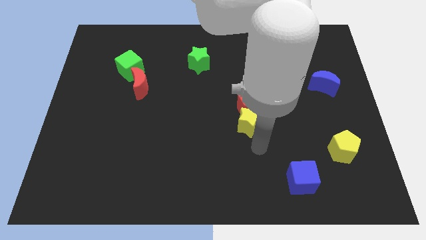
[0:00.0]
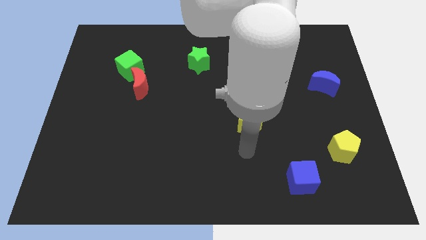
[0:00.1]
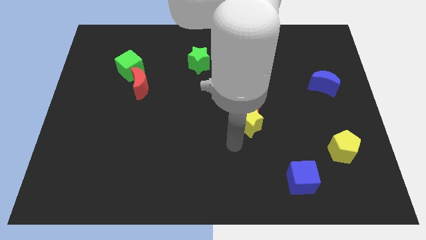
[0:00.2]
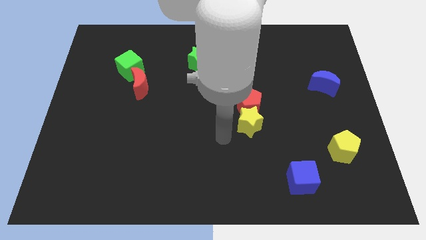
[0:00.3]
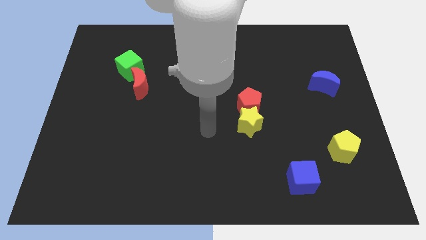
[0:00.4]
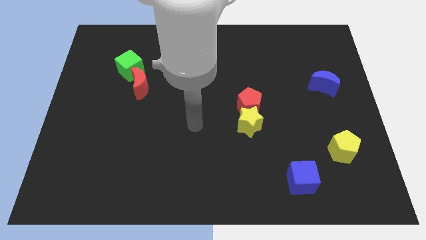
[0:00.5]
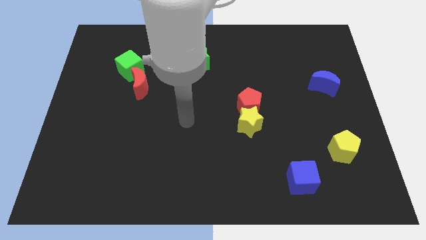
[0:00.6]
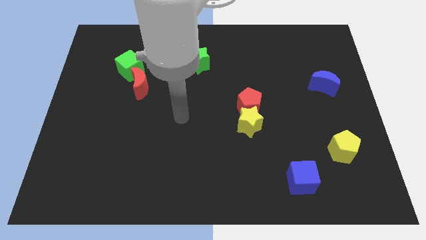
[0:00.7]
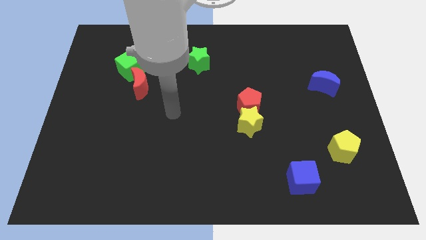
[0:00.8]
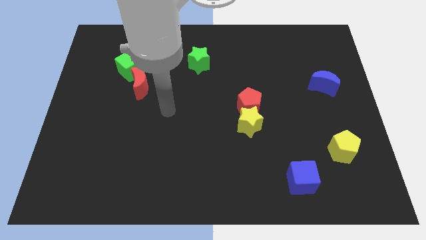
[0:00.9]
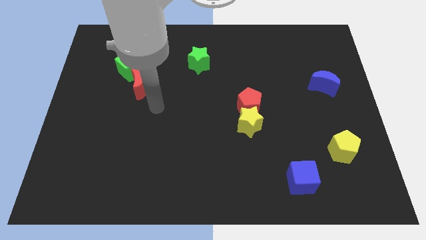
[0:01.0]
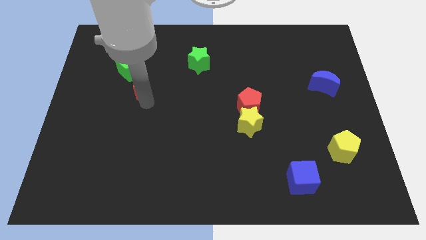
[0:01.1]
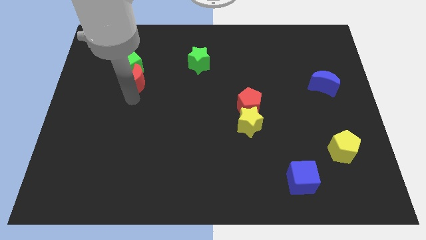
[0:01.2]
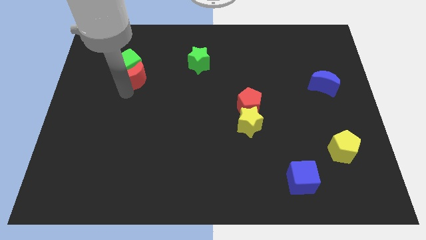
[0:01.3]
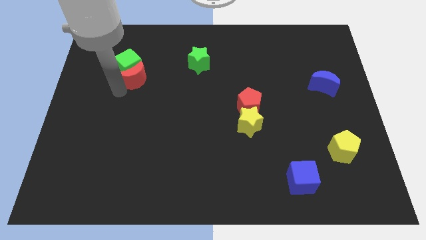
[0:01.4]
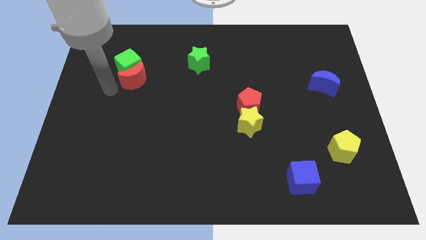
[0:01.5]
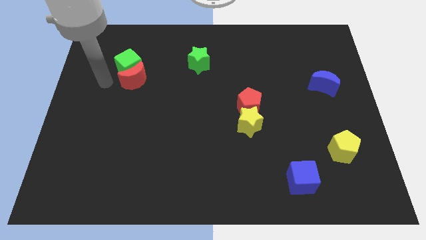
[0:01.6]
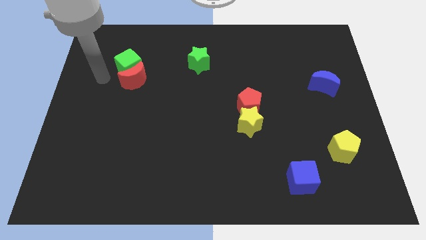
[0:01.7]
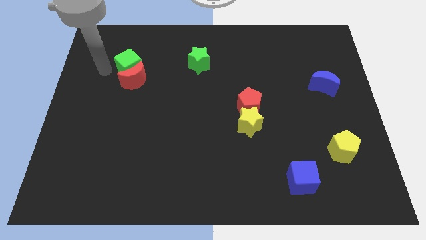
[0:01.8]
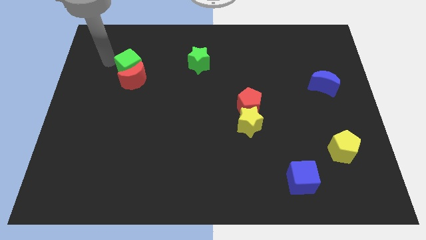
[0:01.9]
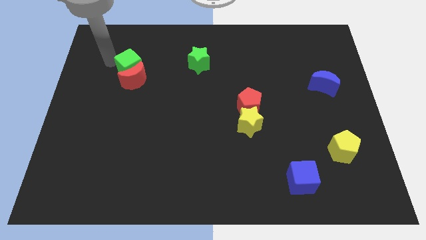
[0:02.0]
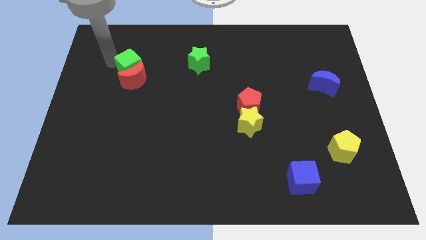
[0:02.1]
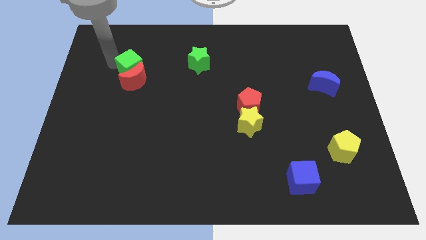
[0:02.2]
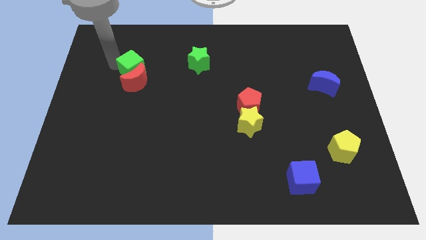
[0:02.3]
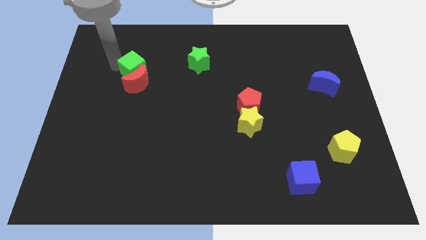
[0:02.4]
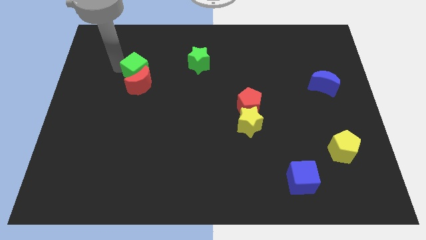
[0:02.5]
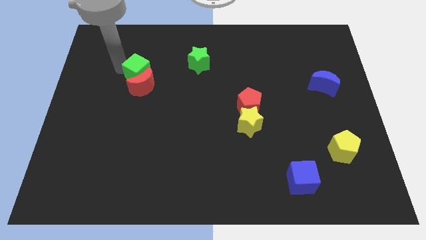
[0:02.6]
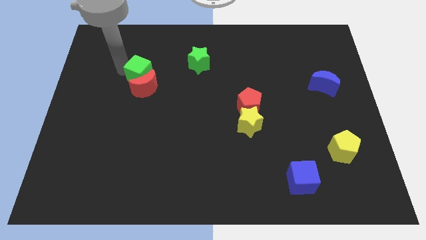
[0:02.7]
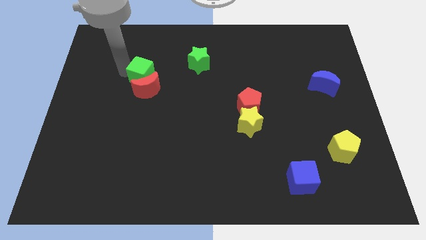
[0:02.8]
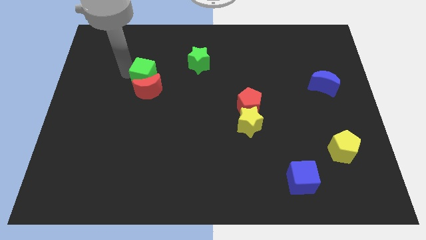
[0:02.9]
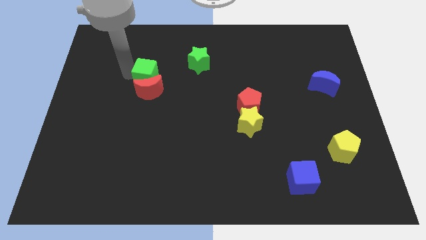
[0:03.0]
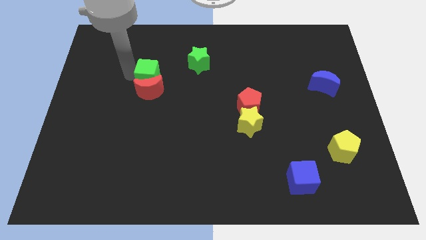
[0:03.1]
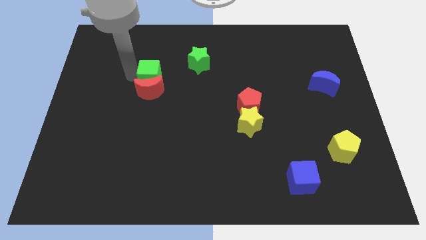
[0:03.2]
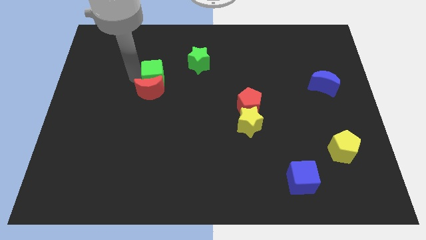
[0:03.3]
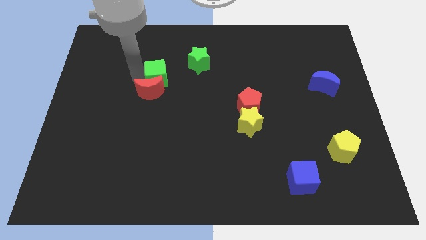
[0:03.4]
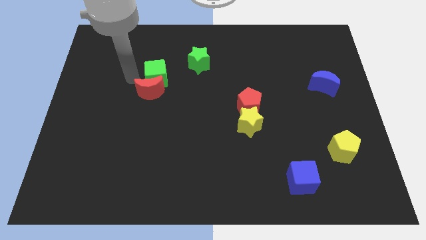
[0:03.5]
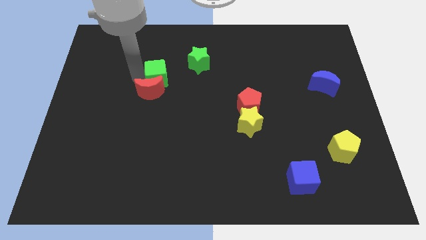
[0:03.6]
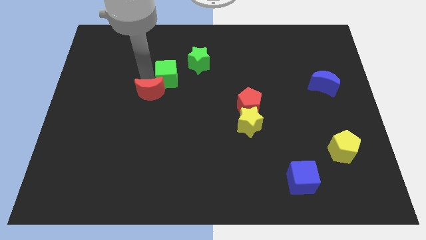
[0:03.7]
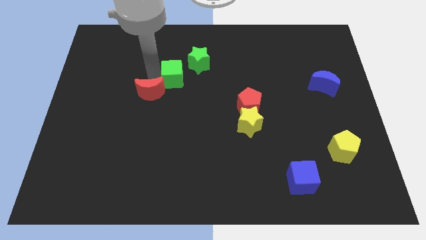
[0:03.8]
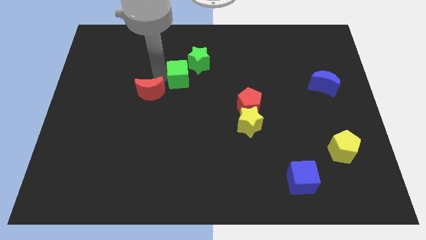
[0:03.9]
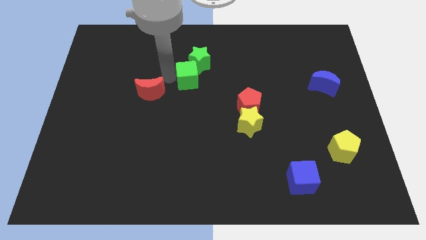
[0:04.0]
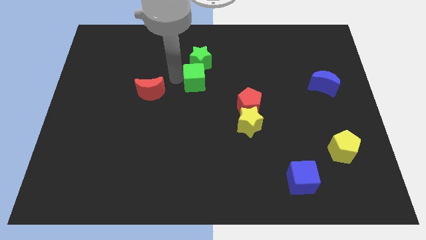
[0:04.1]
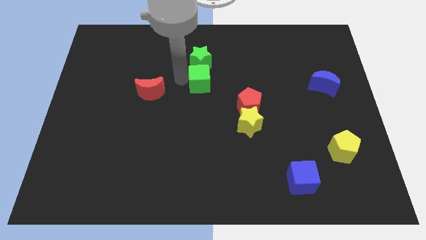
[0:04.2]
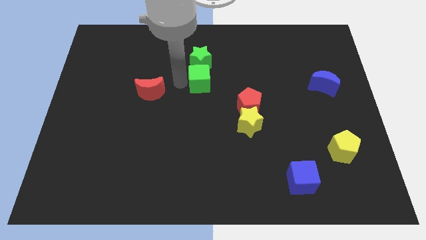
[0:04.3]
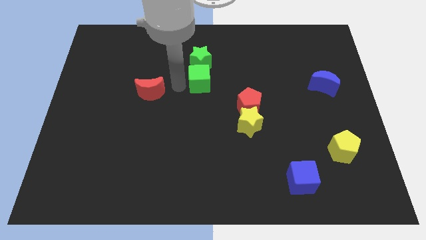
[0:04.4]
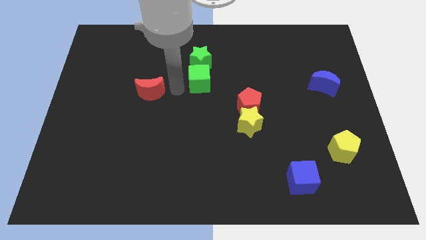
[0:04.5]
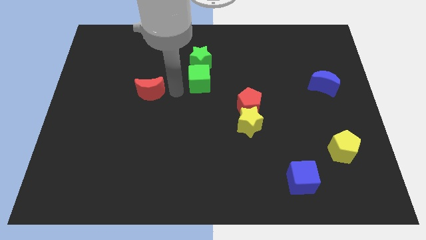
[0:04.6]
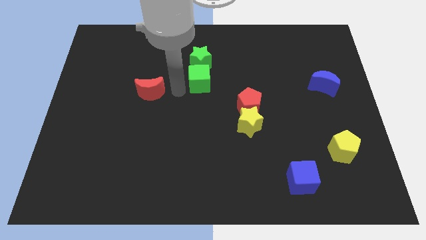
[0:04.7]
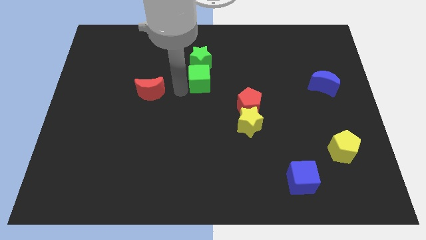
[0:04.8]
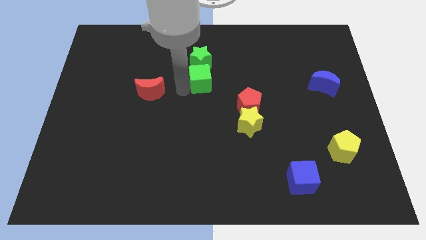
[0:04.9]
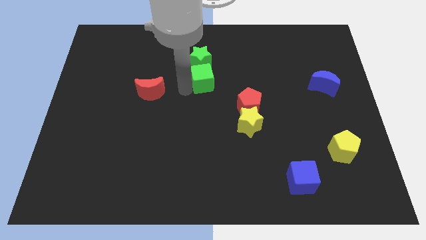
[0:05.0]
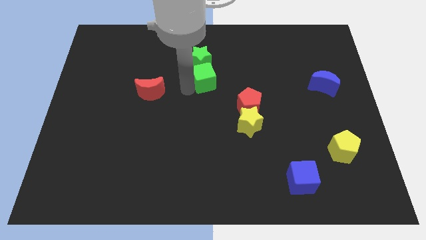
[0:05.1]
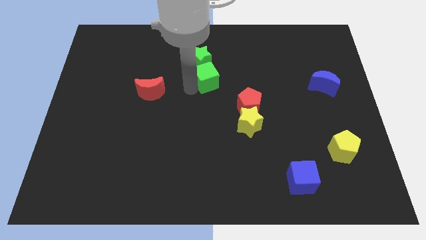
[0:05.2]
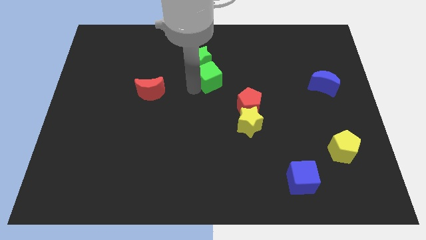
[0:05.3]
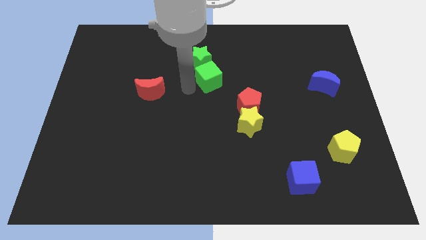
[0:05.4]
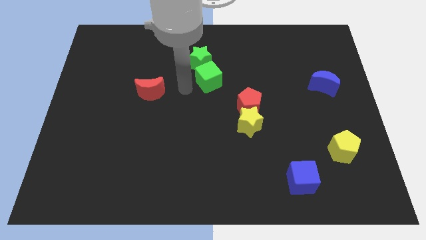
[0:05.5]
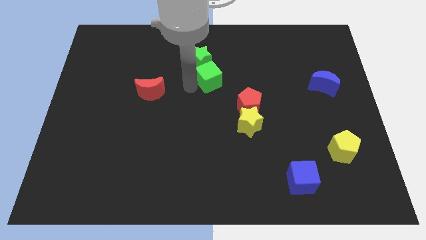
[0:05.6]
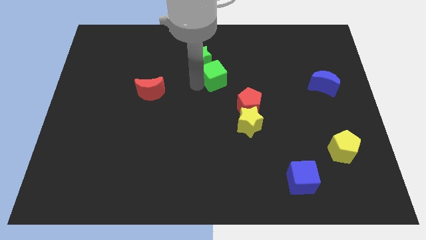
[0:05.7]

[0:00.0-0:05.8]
move the green cube right

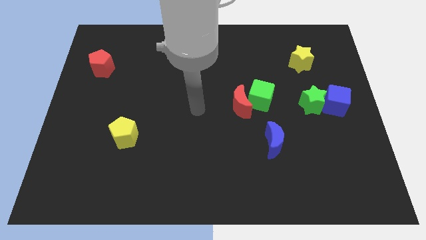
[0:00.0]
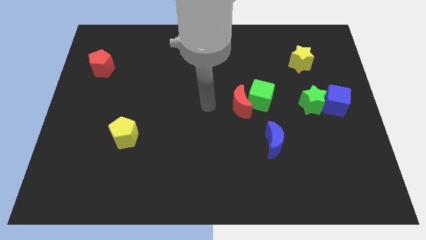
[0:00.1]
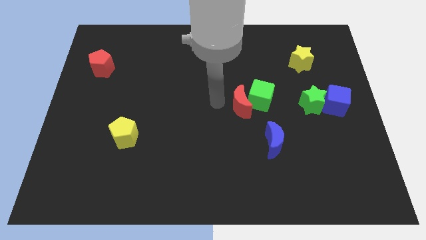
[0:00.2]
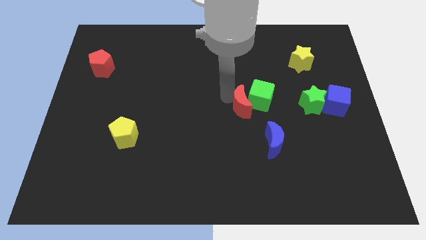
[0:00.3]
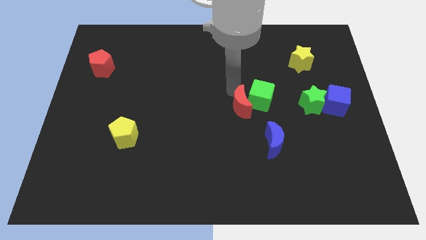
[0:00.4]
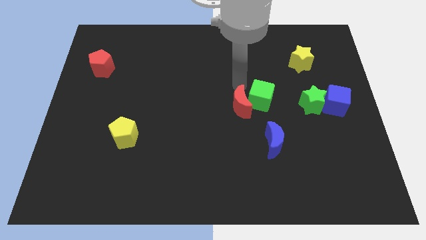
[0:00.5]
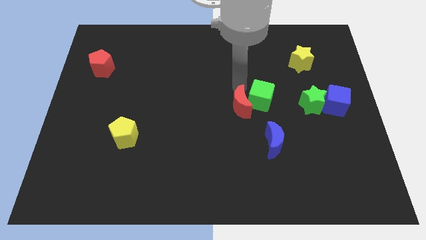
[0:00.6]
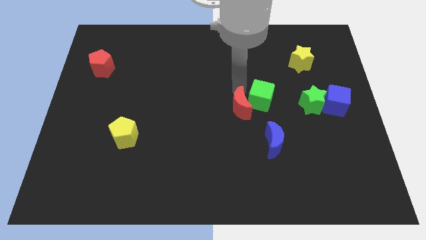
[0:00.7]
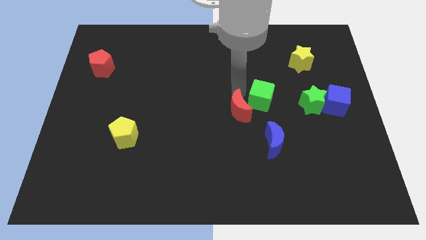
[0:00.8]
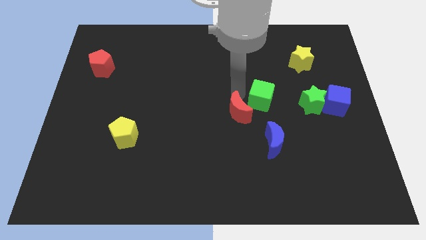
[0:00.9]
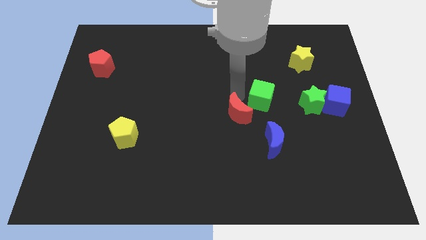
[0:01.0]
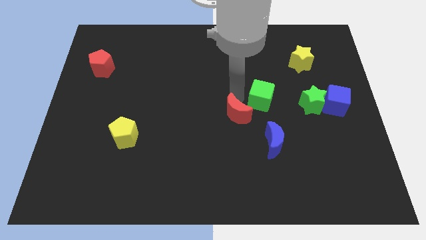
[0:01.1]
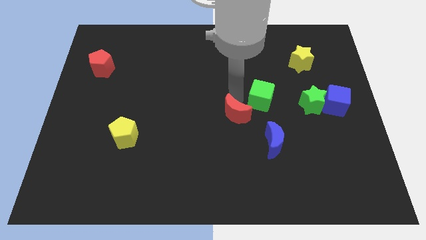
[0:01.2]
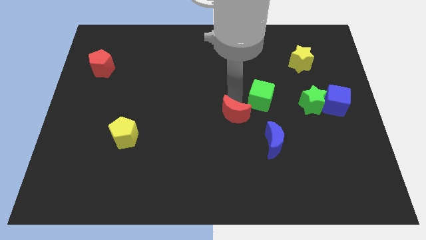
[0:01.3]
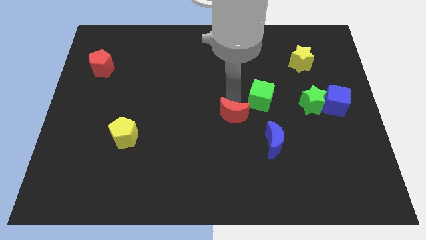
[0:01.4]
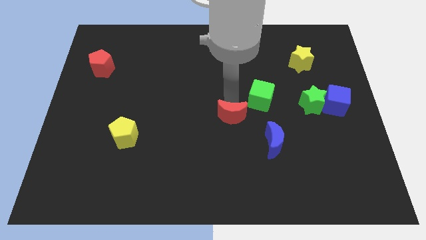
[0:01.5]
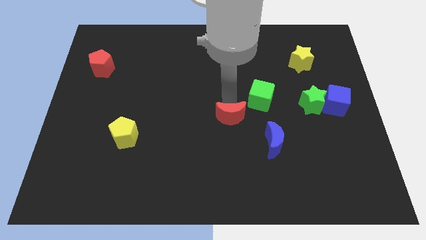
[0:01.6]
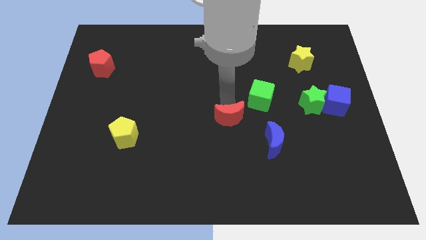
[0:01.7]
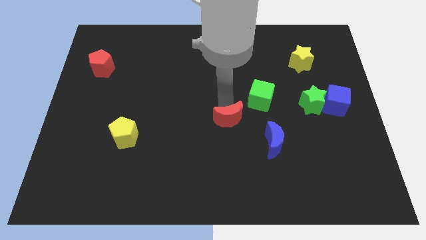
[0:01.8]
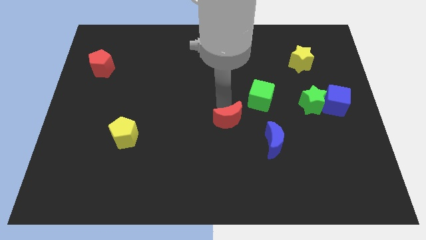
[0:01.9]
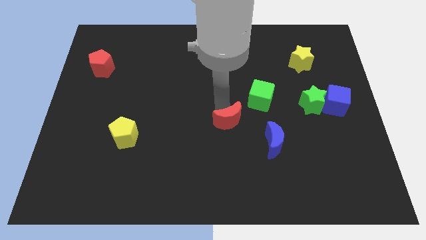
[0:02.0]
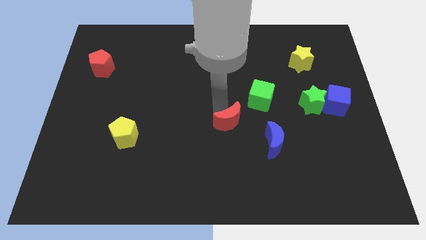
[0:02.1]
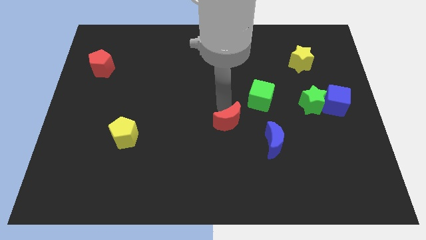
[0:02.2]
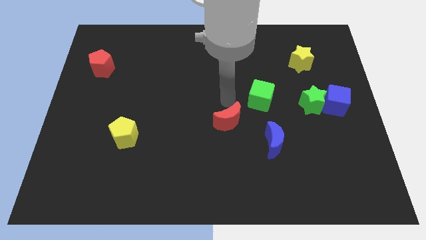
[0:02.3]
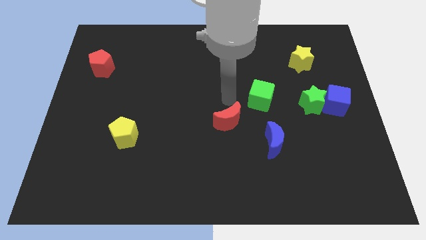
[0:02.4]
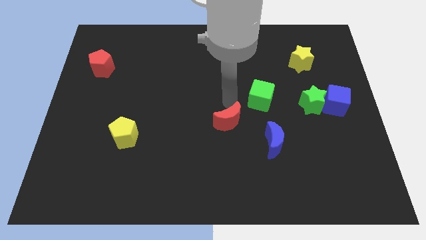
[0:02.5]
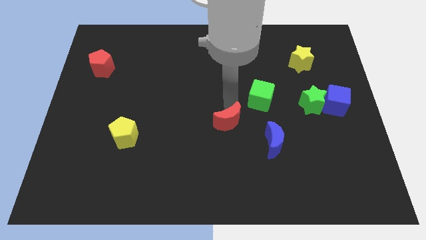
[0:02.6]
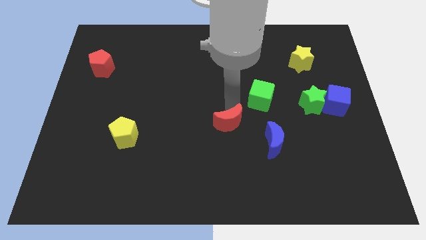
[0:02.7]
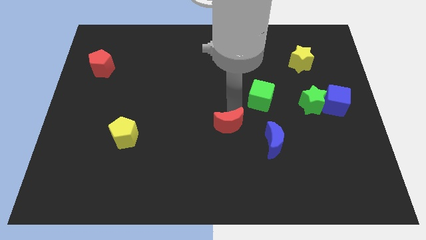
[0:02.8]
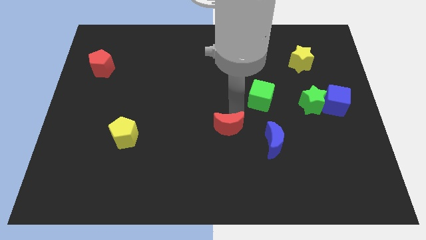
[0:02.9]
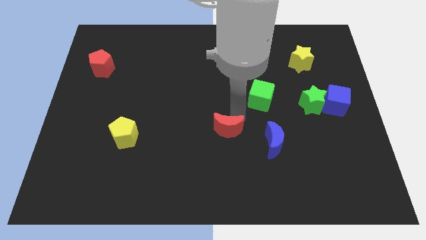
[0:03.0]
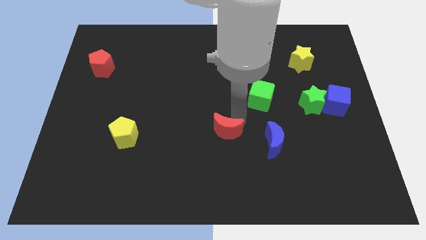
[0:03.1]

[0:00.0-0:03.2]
slightly push the red moon downwards
